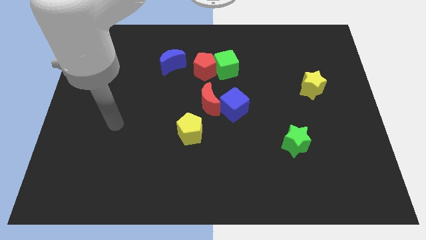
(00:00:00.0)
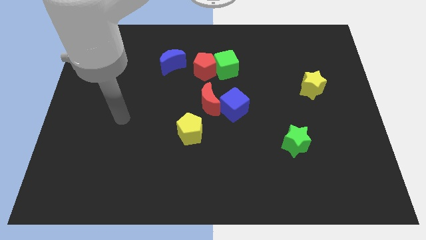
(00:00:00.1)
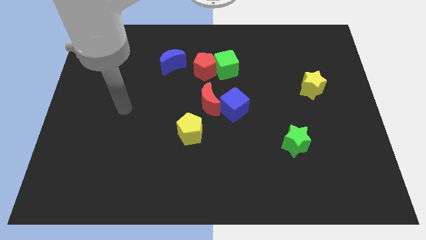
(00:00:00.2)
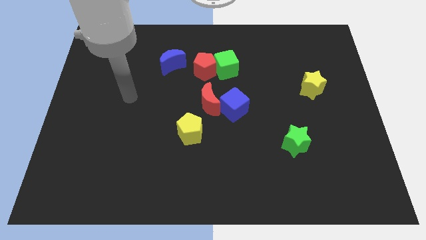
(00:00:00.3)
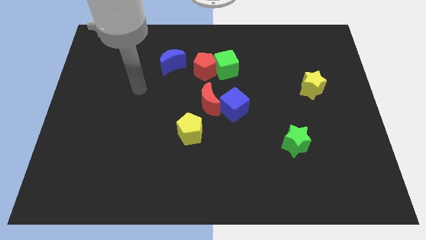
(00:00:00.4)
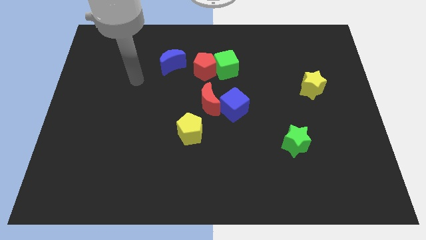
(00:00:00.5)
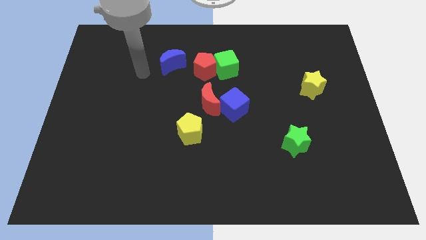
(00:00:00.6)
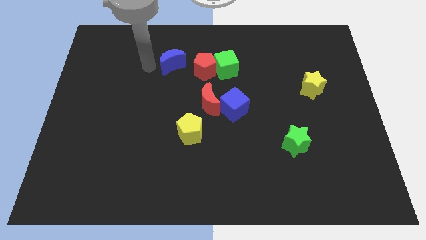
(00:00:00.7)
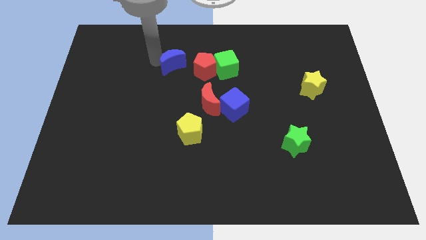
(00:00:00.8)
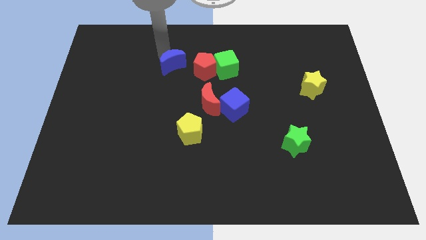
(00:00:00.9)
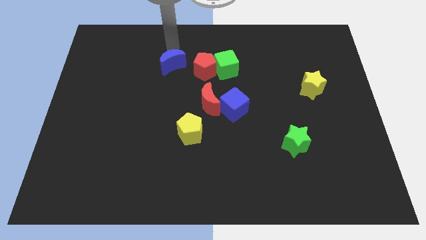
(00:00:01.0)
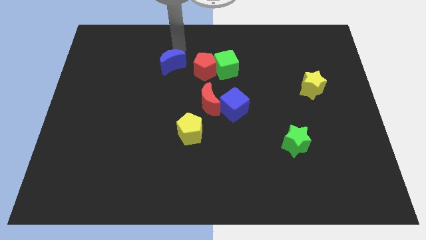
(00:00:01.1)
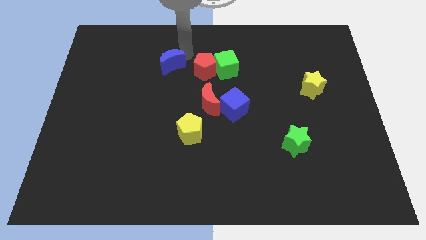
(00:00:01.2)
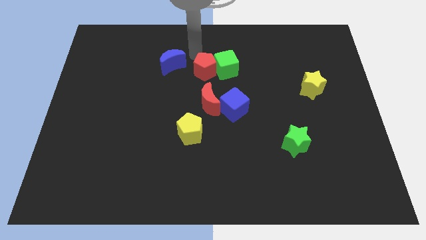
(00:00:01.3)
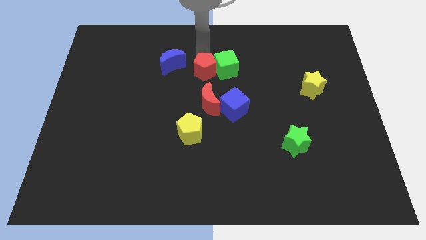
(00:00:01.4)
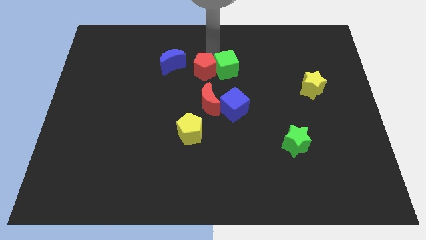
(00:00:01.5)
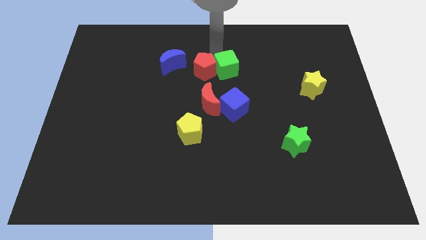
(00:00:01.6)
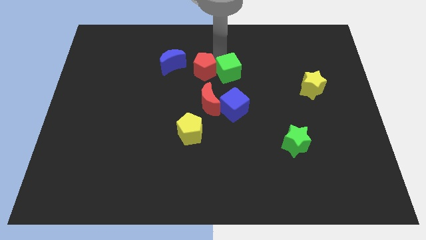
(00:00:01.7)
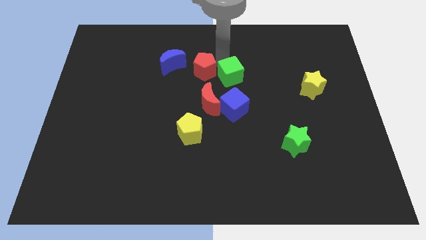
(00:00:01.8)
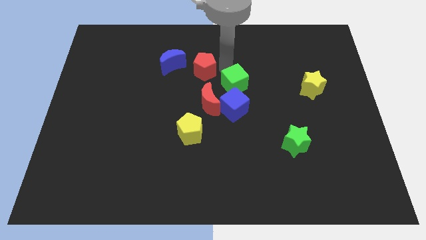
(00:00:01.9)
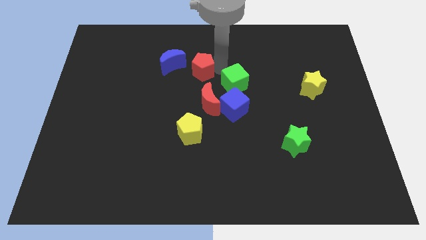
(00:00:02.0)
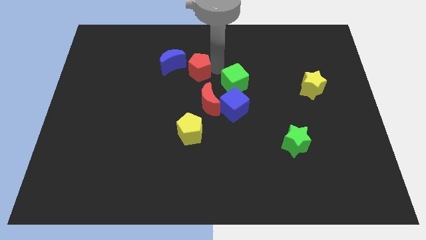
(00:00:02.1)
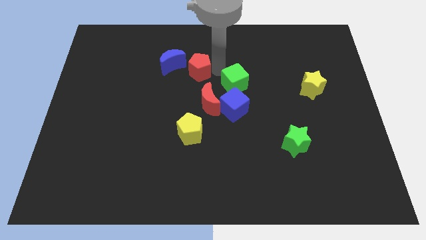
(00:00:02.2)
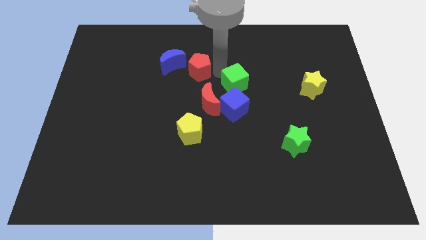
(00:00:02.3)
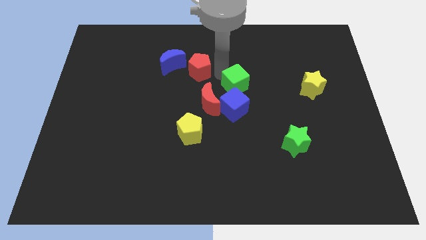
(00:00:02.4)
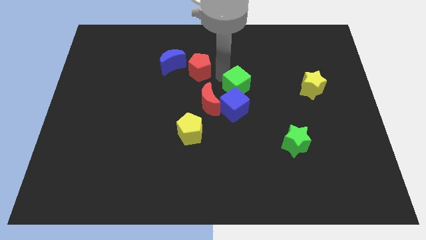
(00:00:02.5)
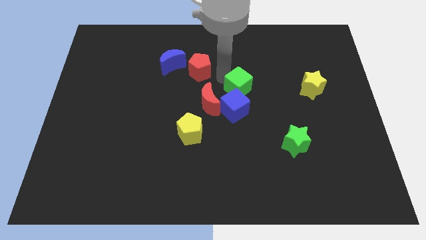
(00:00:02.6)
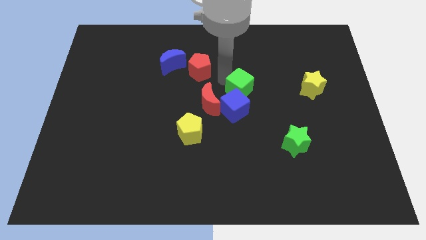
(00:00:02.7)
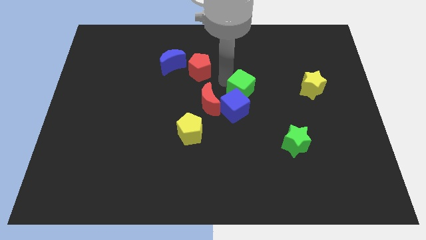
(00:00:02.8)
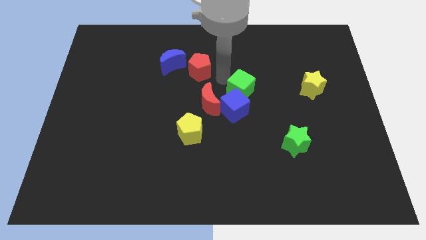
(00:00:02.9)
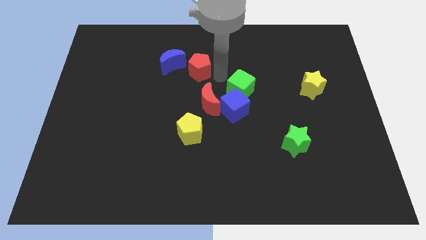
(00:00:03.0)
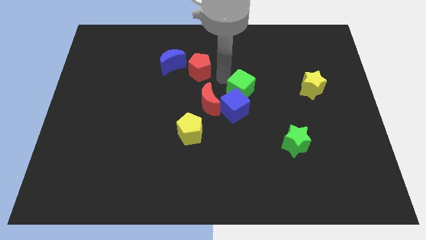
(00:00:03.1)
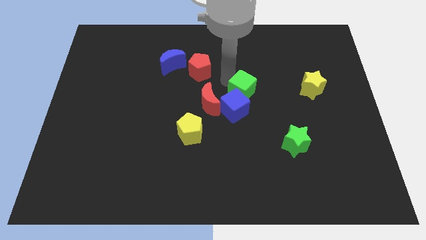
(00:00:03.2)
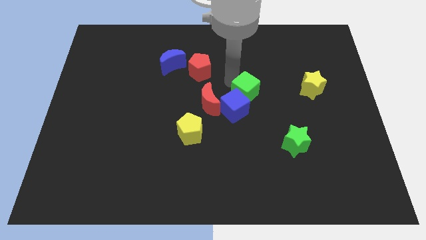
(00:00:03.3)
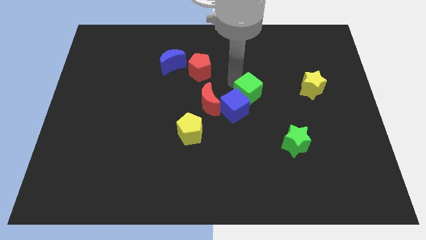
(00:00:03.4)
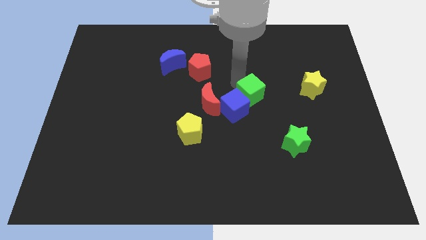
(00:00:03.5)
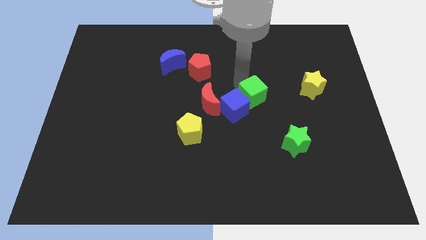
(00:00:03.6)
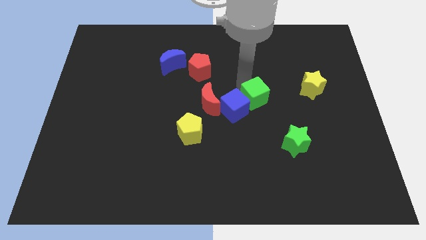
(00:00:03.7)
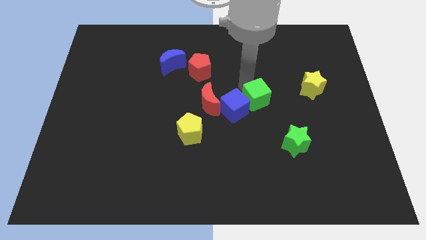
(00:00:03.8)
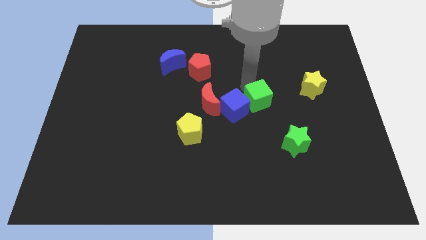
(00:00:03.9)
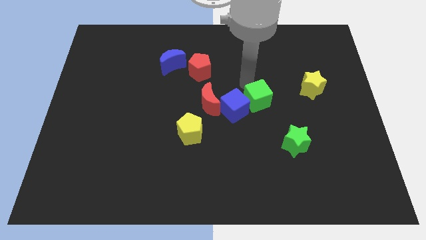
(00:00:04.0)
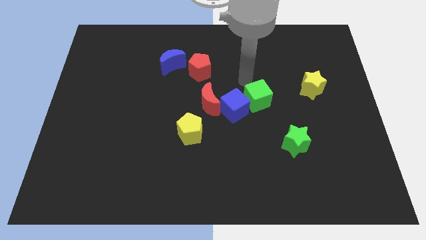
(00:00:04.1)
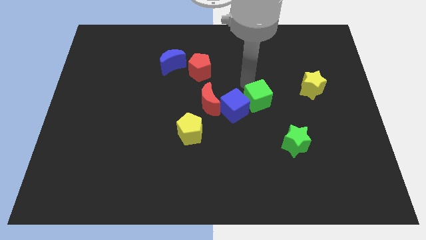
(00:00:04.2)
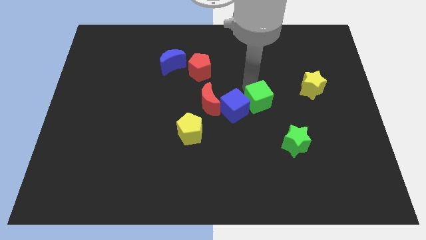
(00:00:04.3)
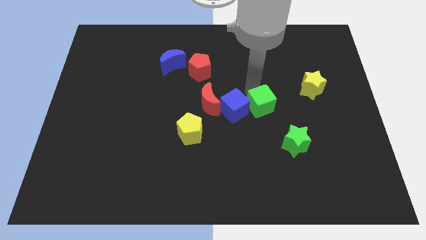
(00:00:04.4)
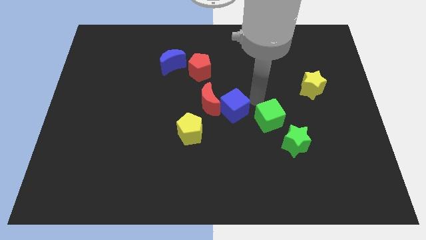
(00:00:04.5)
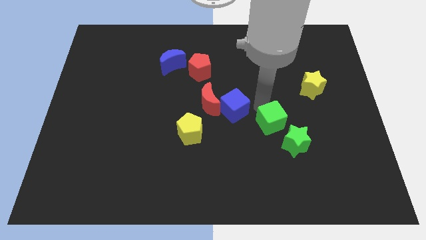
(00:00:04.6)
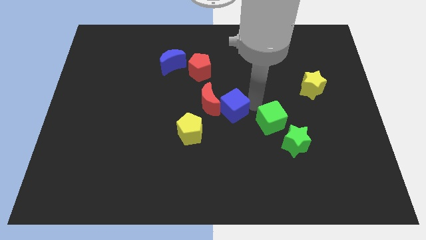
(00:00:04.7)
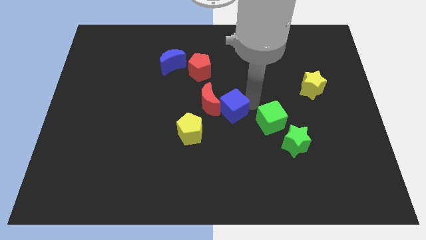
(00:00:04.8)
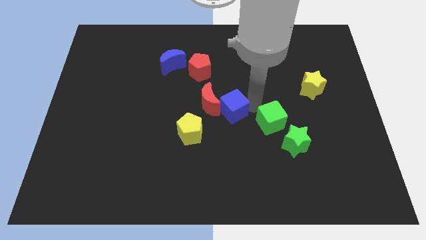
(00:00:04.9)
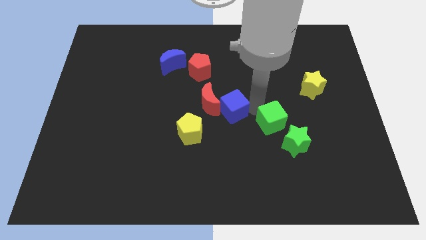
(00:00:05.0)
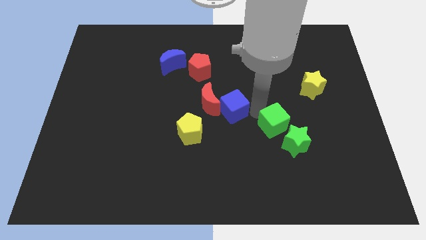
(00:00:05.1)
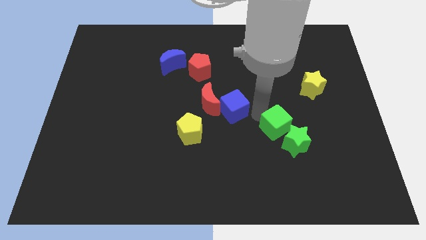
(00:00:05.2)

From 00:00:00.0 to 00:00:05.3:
push the green cube next to the green star

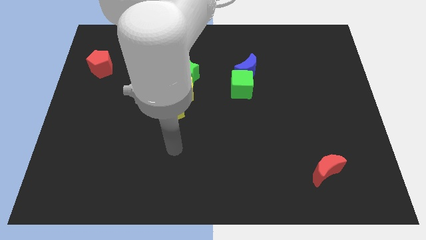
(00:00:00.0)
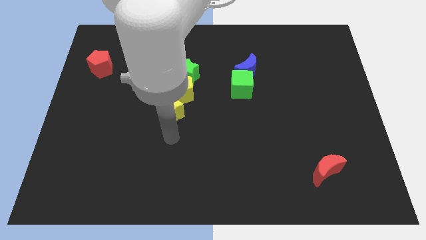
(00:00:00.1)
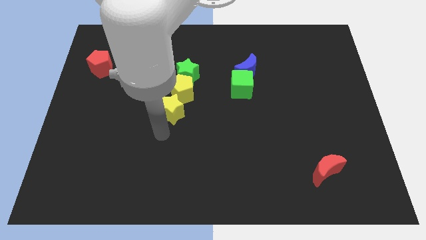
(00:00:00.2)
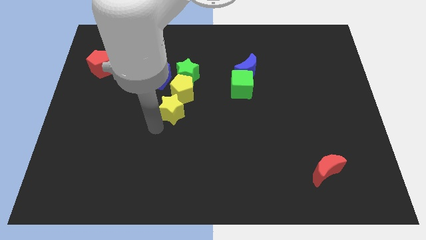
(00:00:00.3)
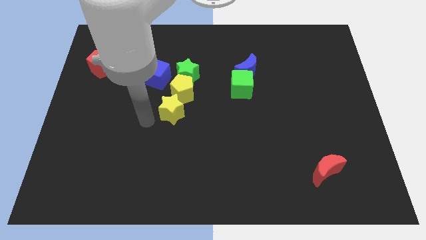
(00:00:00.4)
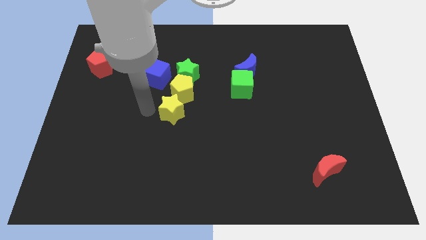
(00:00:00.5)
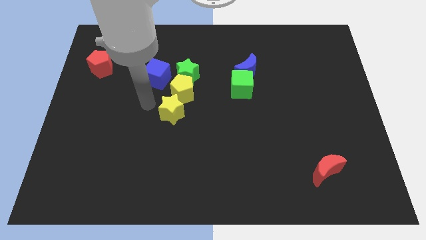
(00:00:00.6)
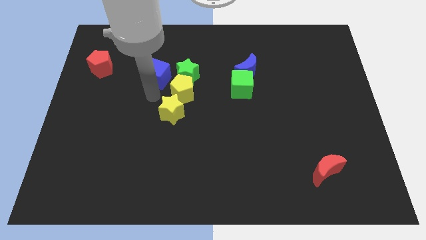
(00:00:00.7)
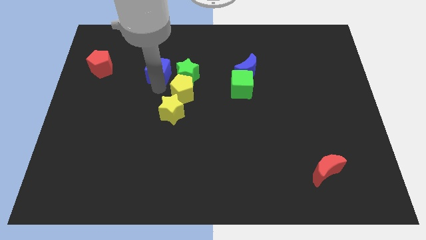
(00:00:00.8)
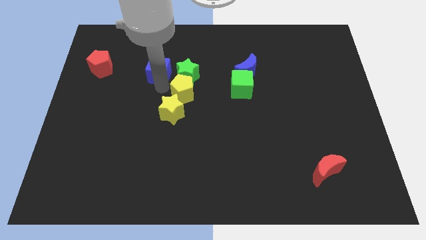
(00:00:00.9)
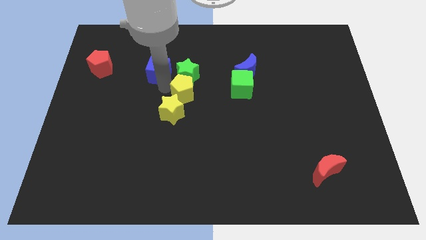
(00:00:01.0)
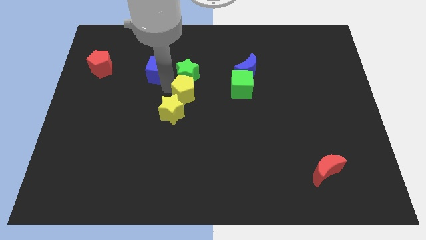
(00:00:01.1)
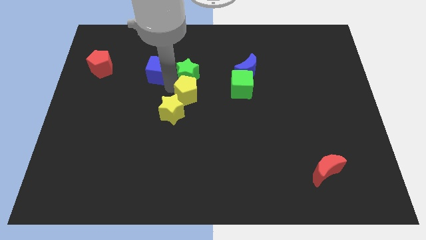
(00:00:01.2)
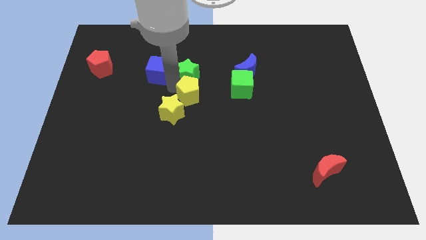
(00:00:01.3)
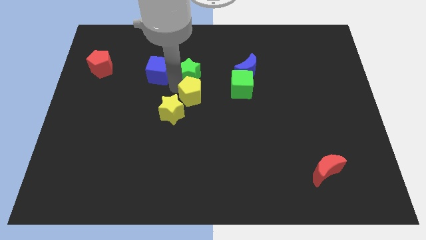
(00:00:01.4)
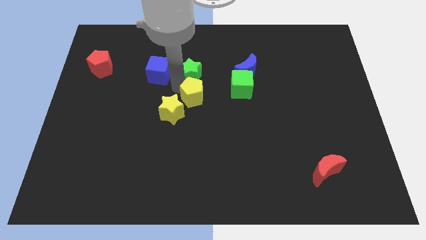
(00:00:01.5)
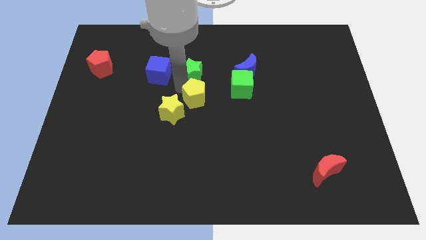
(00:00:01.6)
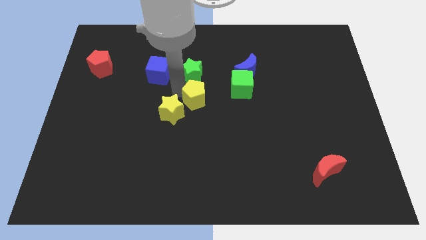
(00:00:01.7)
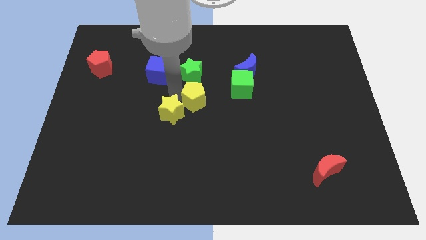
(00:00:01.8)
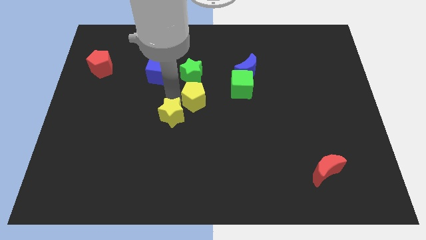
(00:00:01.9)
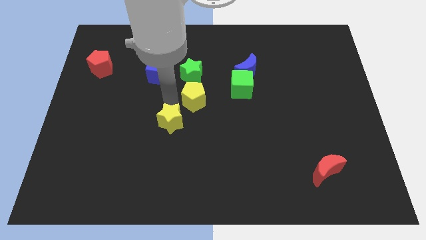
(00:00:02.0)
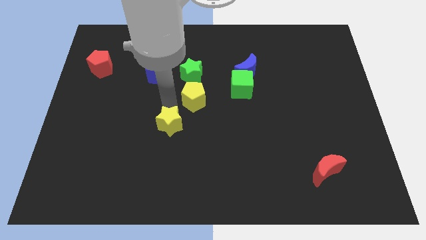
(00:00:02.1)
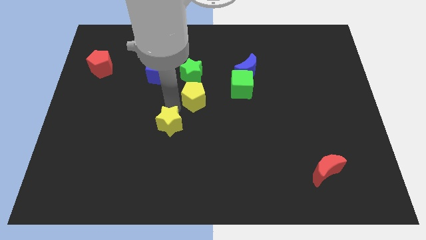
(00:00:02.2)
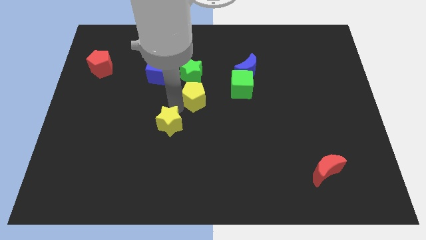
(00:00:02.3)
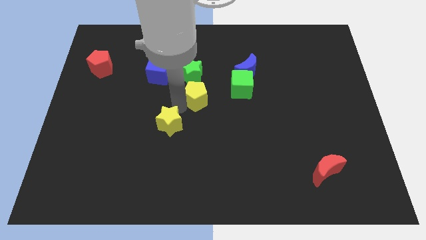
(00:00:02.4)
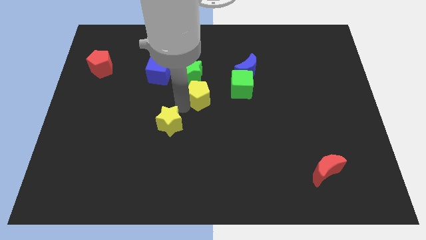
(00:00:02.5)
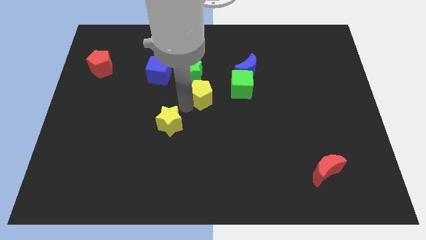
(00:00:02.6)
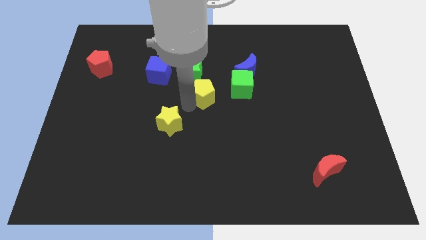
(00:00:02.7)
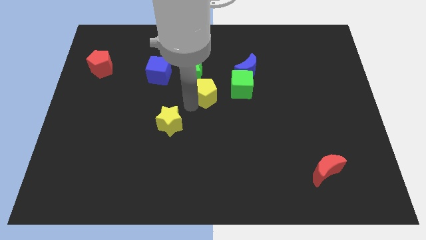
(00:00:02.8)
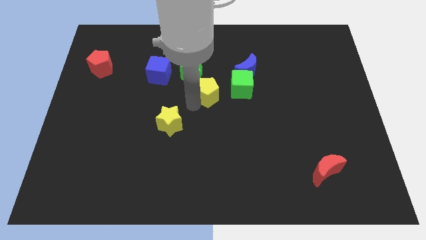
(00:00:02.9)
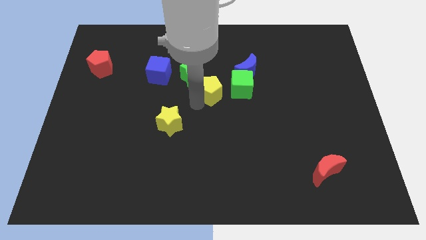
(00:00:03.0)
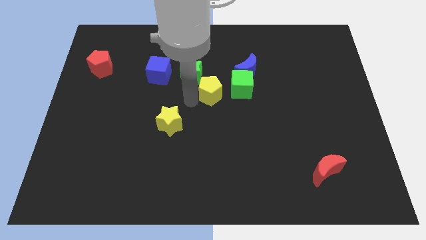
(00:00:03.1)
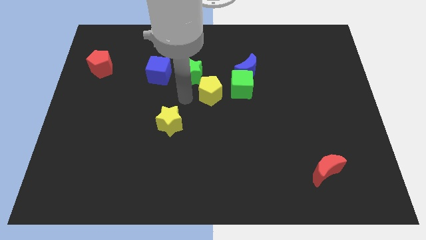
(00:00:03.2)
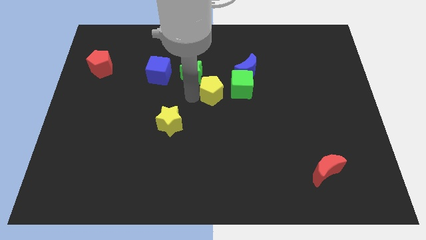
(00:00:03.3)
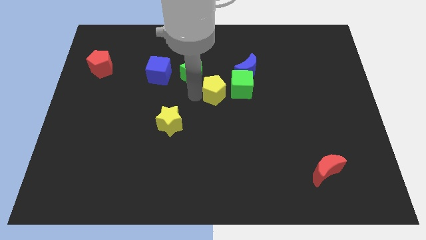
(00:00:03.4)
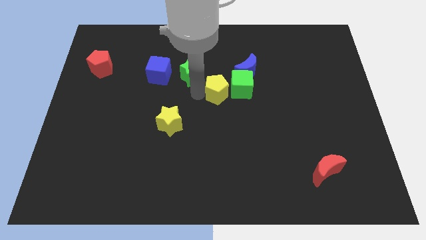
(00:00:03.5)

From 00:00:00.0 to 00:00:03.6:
push the yellow pentagon to the green cube
